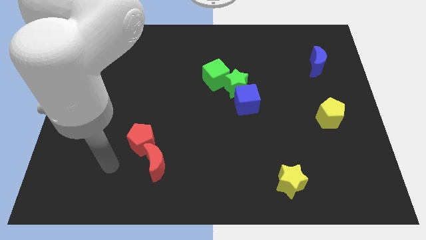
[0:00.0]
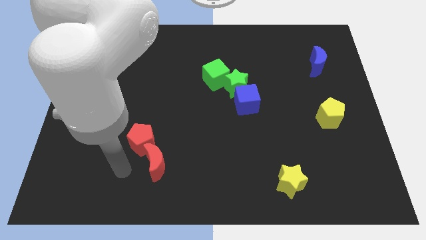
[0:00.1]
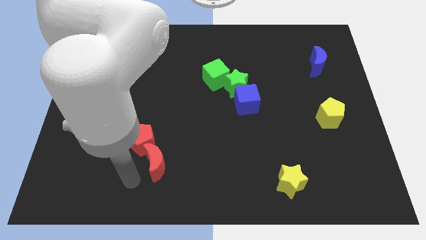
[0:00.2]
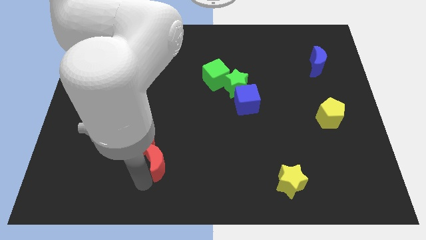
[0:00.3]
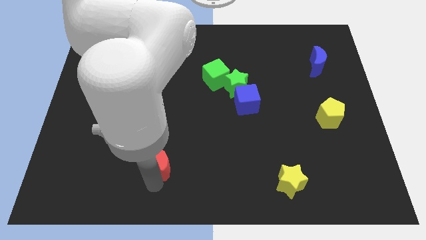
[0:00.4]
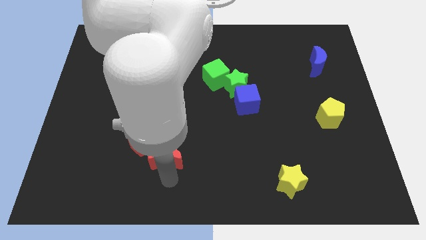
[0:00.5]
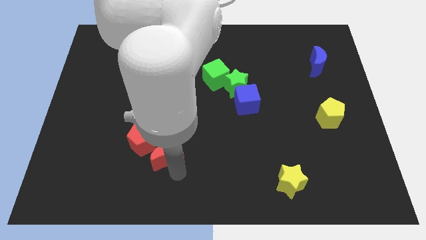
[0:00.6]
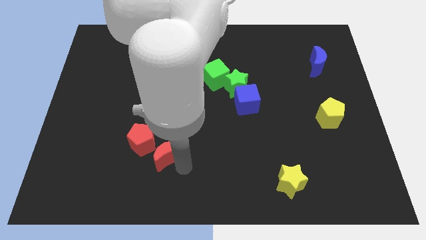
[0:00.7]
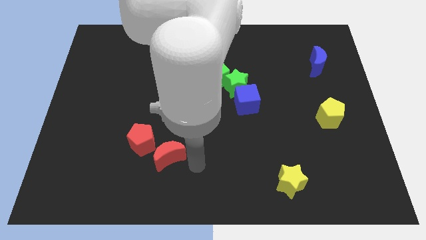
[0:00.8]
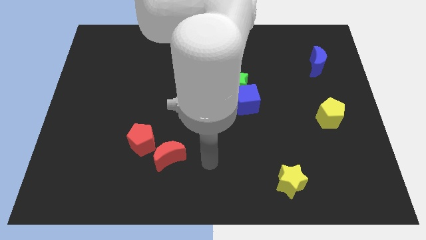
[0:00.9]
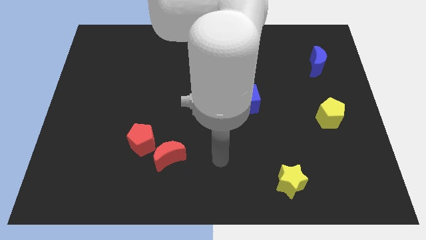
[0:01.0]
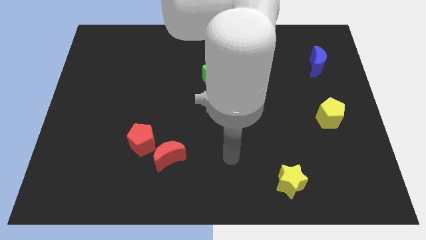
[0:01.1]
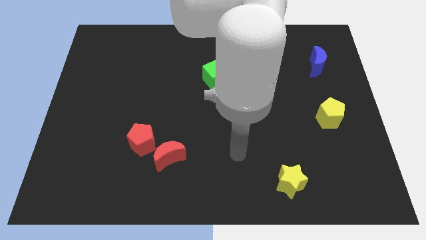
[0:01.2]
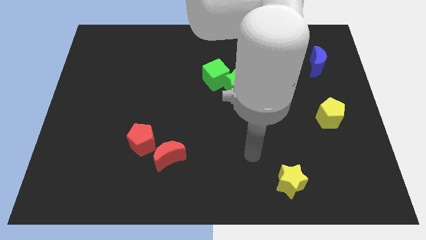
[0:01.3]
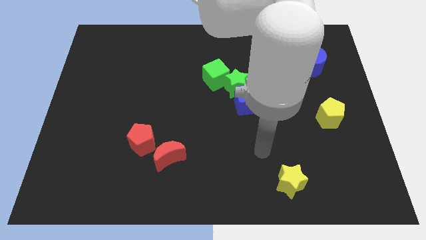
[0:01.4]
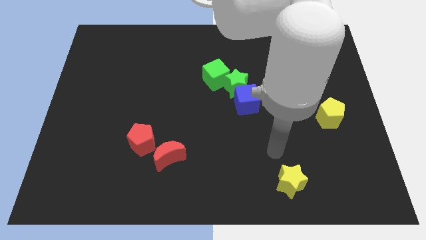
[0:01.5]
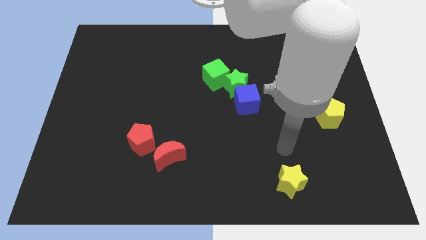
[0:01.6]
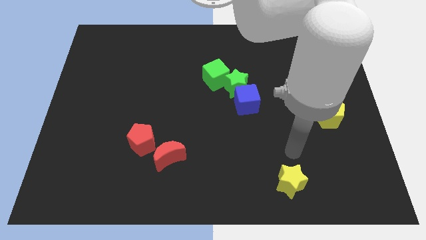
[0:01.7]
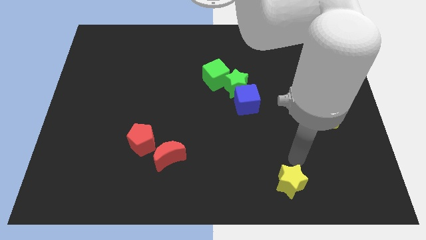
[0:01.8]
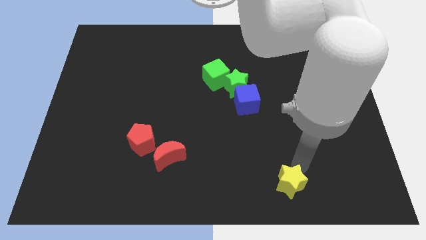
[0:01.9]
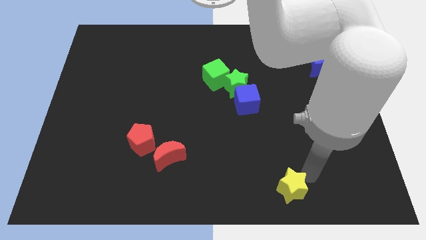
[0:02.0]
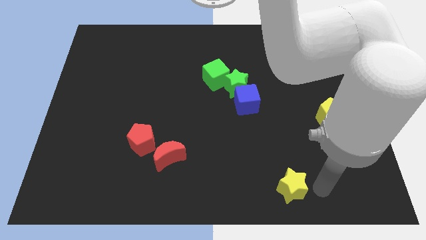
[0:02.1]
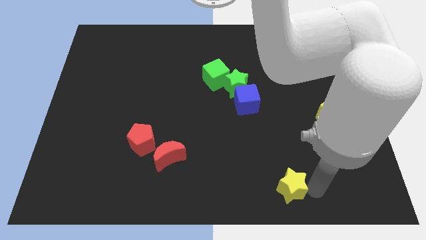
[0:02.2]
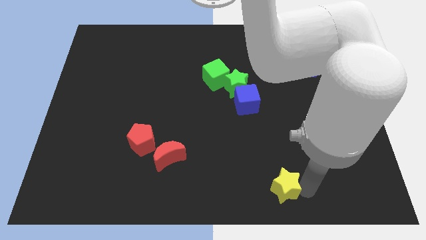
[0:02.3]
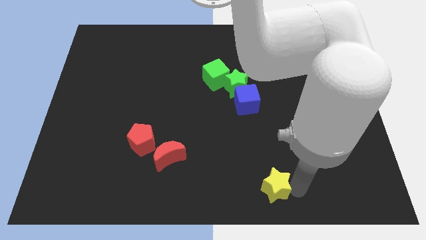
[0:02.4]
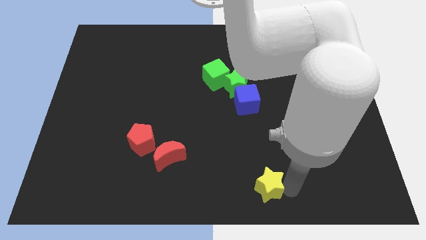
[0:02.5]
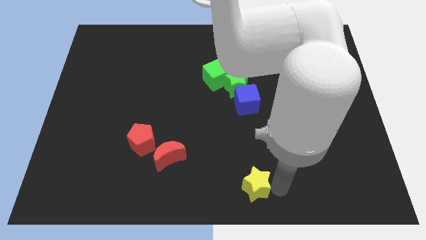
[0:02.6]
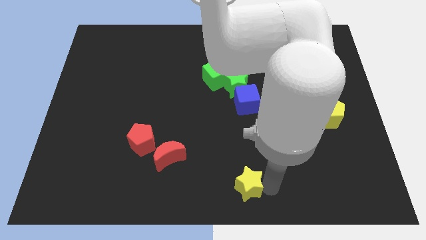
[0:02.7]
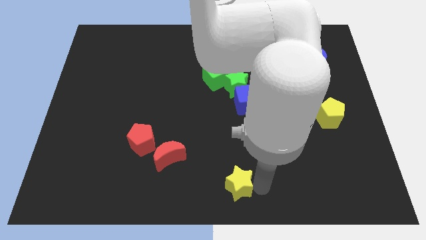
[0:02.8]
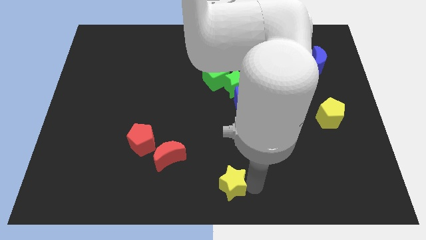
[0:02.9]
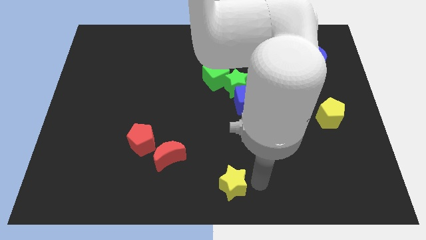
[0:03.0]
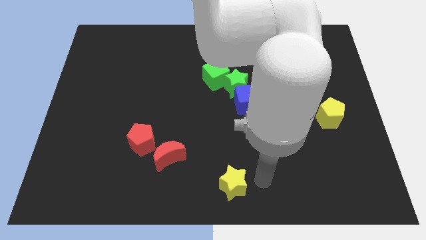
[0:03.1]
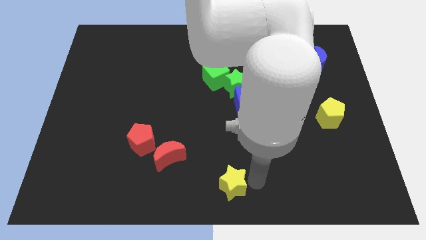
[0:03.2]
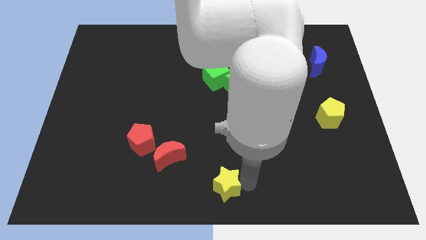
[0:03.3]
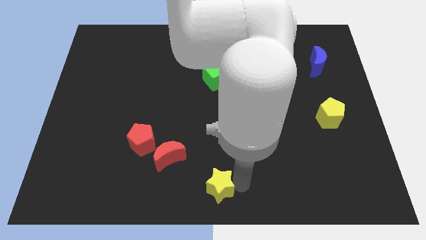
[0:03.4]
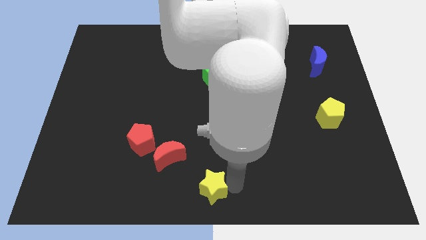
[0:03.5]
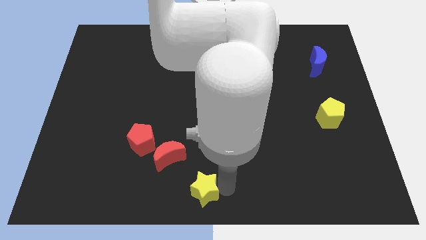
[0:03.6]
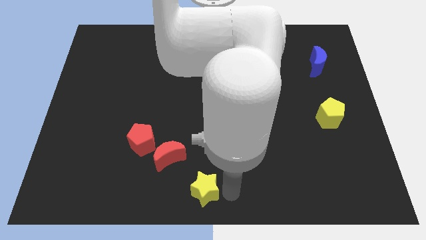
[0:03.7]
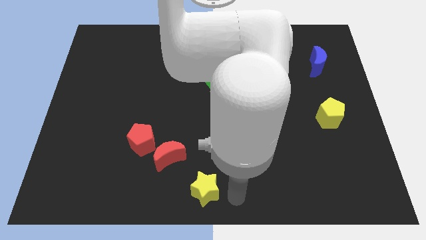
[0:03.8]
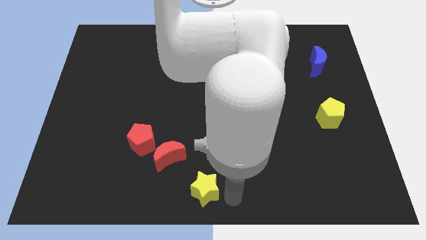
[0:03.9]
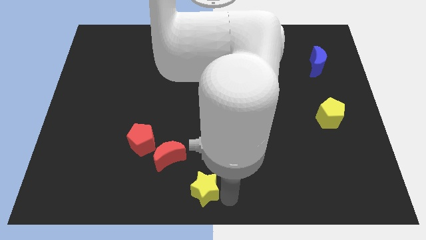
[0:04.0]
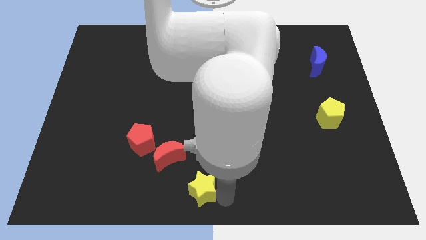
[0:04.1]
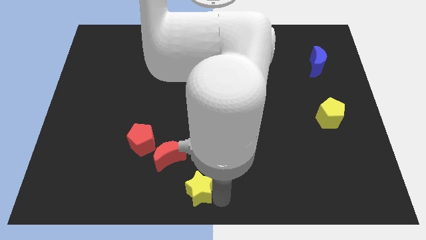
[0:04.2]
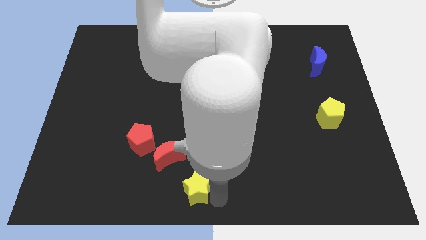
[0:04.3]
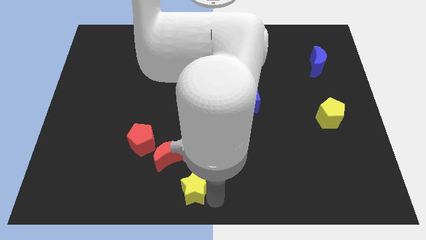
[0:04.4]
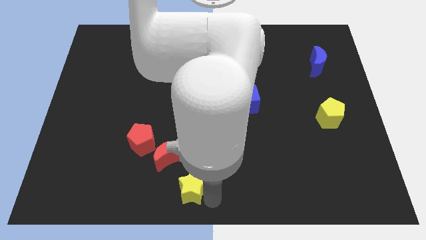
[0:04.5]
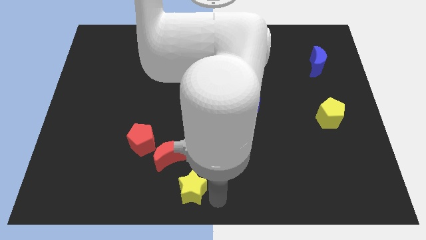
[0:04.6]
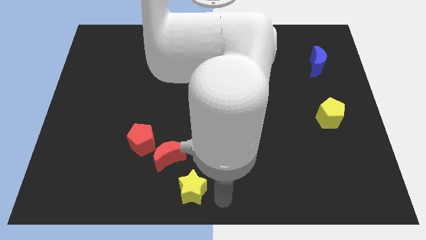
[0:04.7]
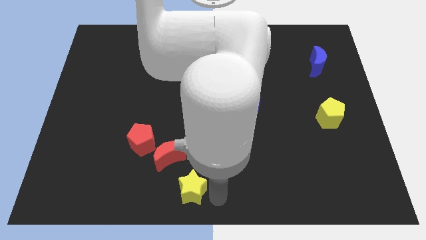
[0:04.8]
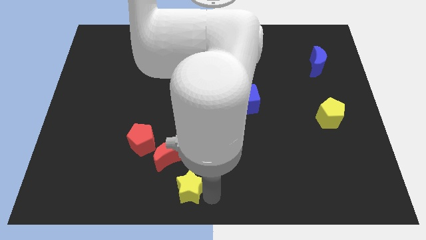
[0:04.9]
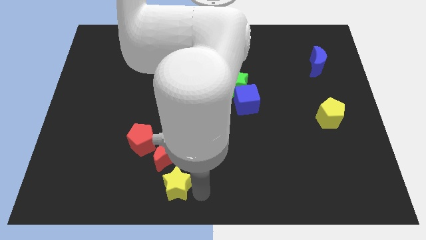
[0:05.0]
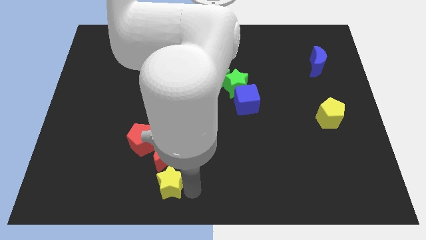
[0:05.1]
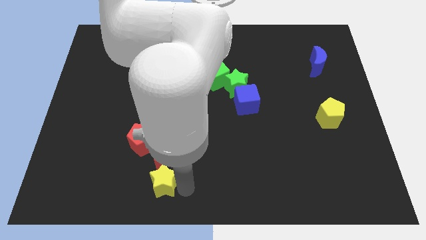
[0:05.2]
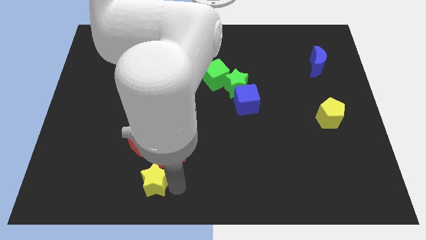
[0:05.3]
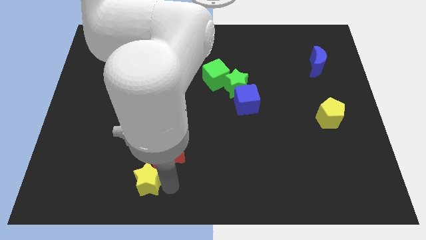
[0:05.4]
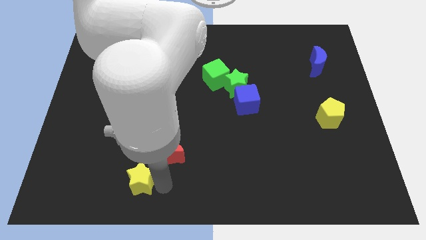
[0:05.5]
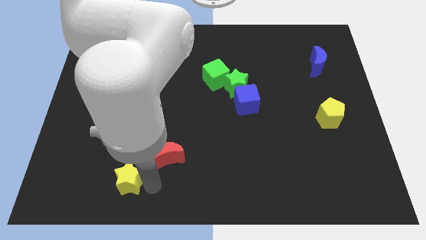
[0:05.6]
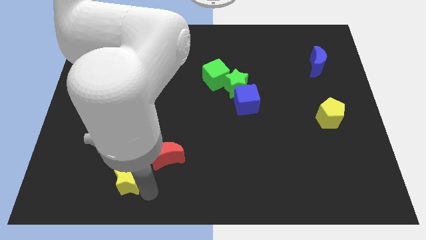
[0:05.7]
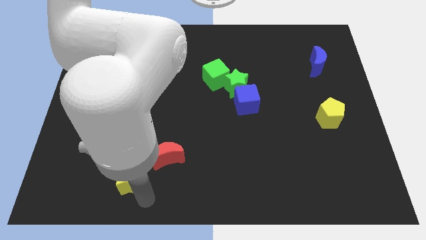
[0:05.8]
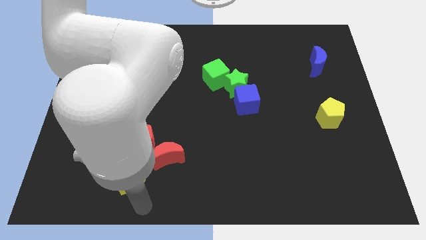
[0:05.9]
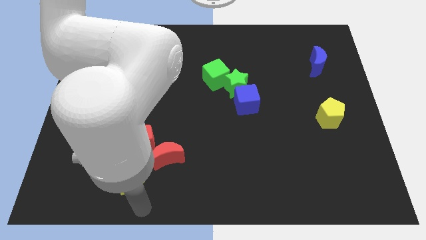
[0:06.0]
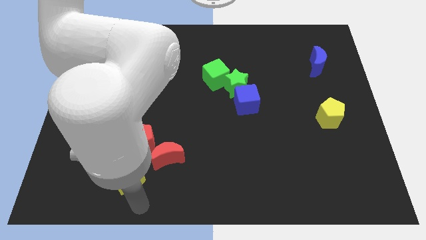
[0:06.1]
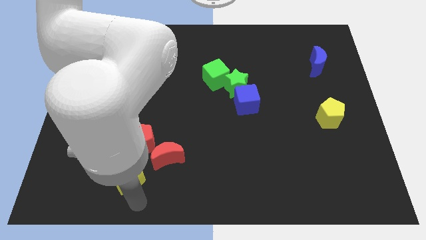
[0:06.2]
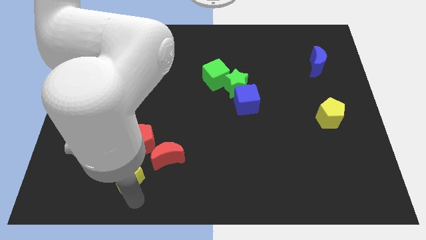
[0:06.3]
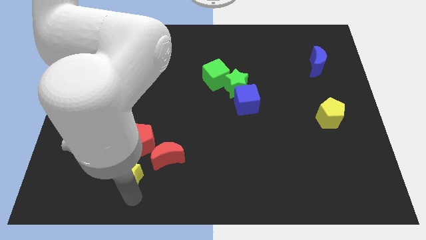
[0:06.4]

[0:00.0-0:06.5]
push the yellow star to the left of the red moon

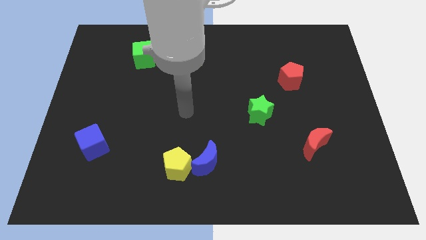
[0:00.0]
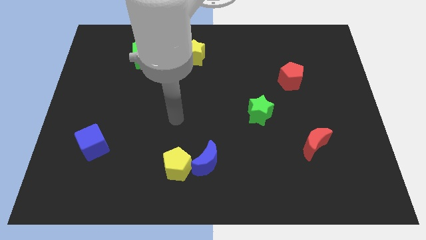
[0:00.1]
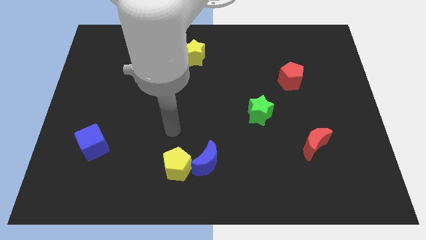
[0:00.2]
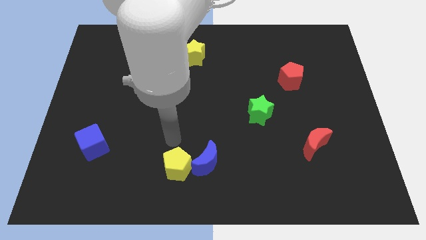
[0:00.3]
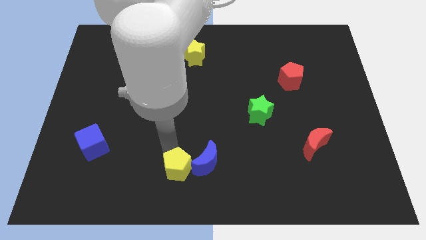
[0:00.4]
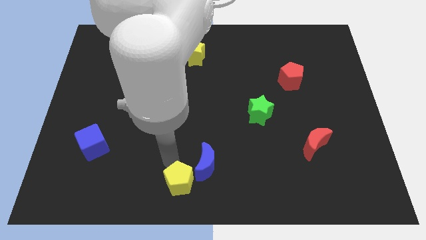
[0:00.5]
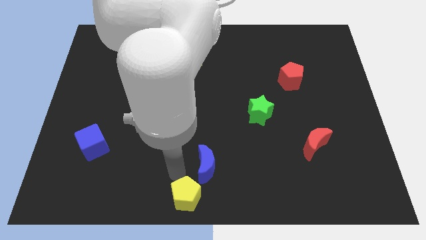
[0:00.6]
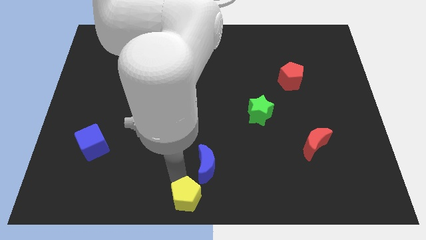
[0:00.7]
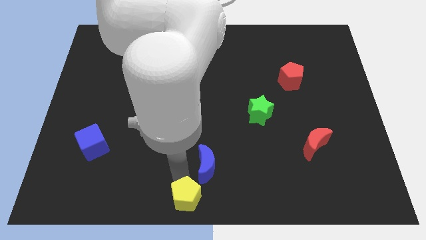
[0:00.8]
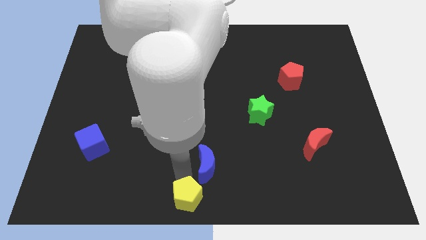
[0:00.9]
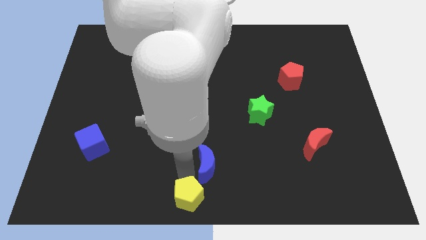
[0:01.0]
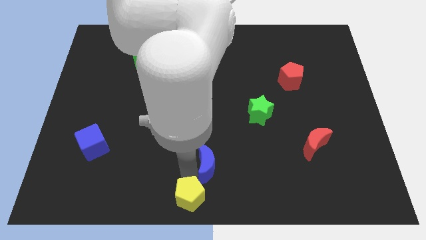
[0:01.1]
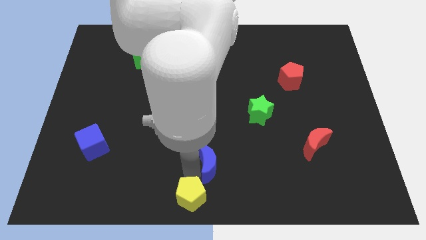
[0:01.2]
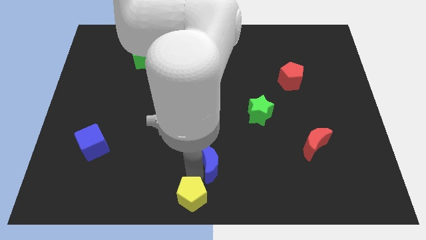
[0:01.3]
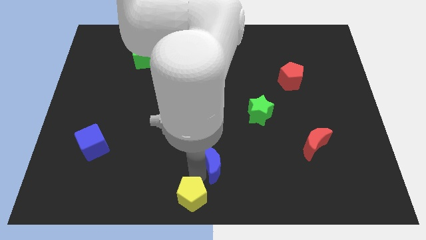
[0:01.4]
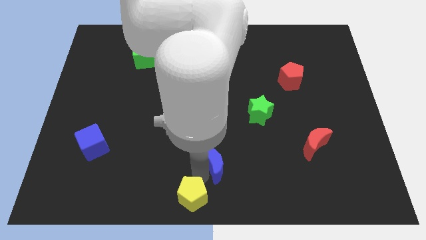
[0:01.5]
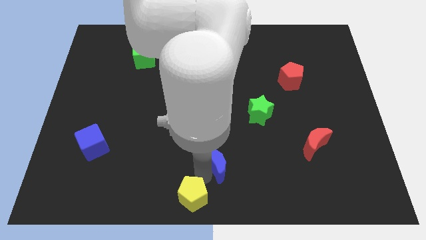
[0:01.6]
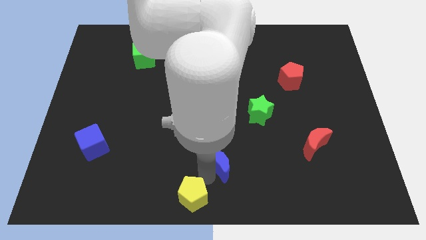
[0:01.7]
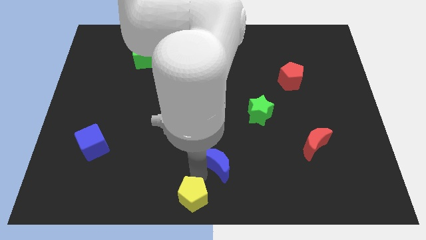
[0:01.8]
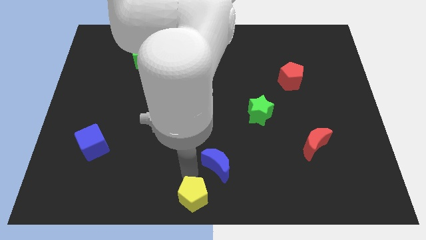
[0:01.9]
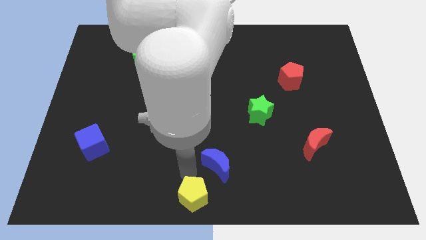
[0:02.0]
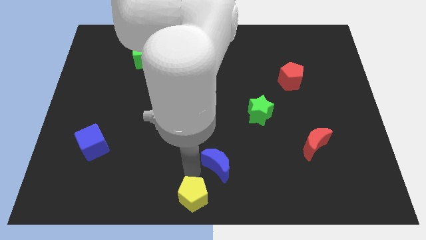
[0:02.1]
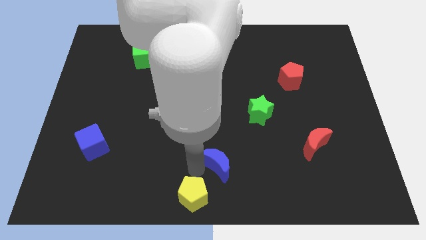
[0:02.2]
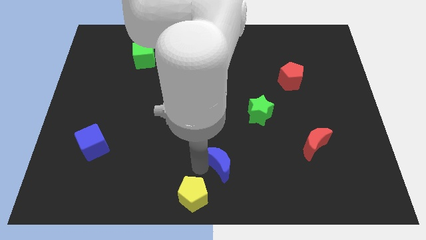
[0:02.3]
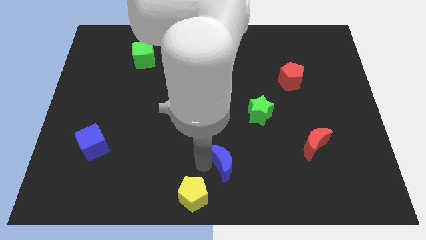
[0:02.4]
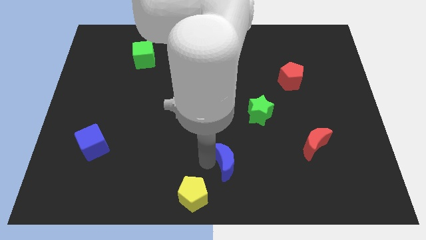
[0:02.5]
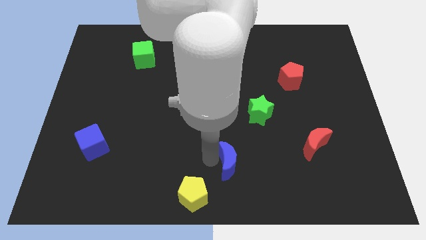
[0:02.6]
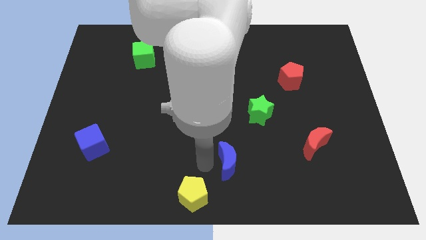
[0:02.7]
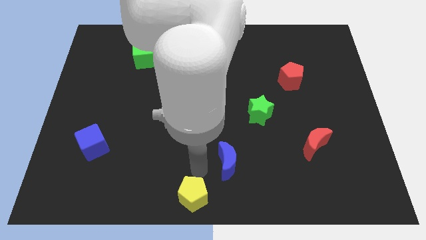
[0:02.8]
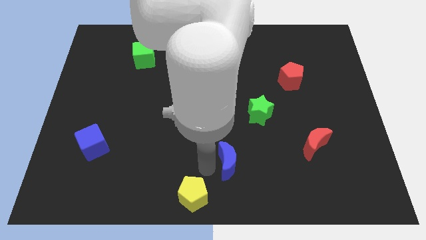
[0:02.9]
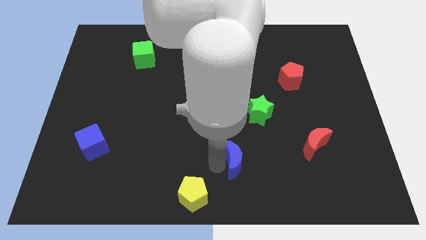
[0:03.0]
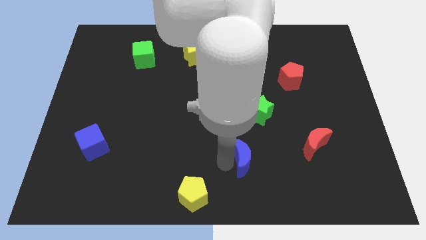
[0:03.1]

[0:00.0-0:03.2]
move the blue moon below the green star
